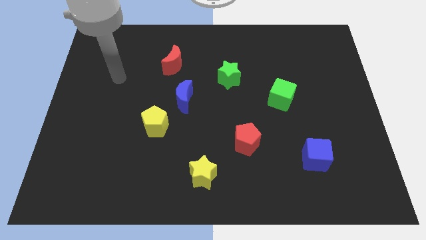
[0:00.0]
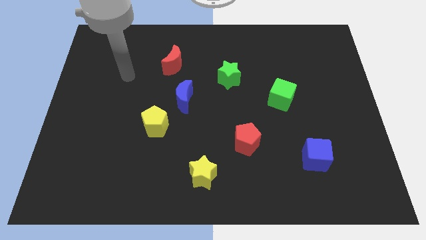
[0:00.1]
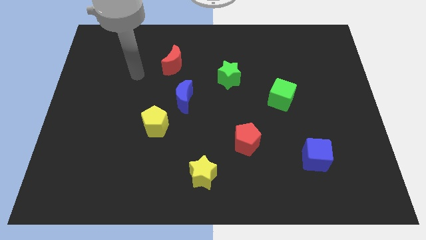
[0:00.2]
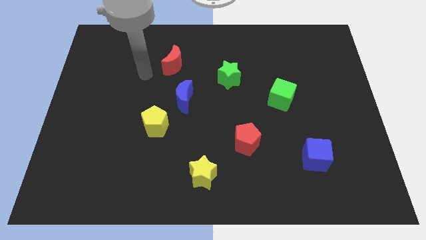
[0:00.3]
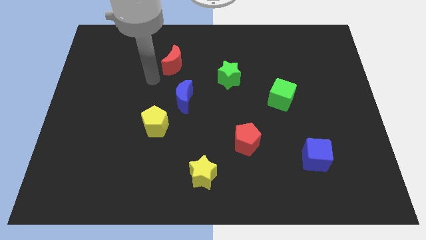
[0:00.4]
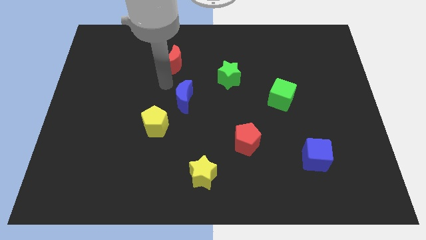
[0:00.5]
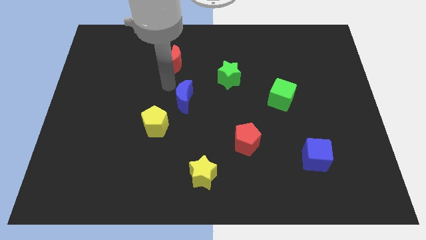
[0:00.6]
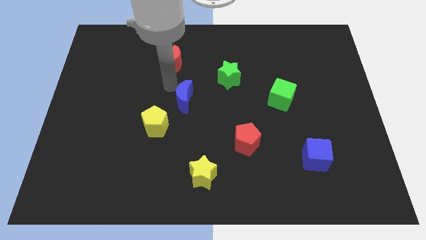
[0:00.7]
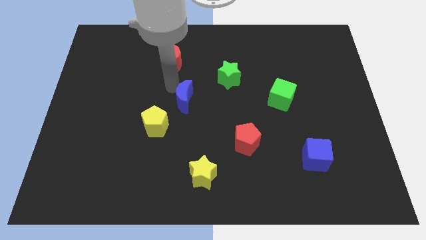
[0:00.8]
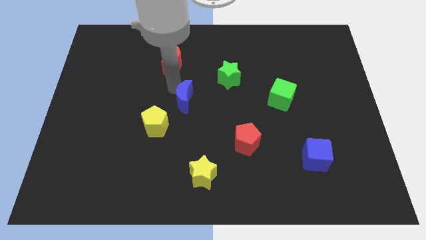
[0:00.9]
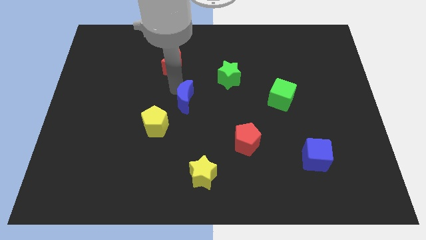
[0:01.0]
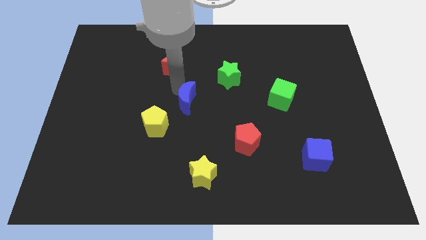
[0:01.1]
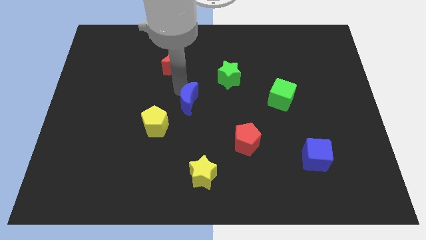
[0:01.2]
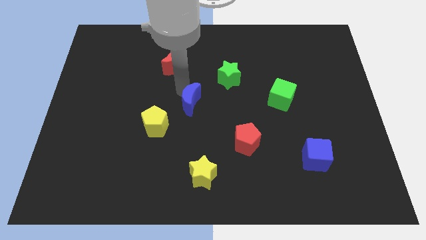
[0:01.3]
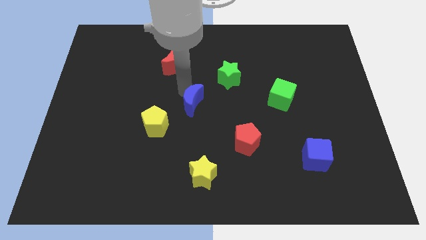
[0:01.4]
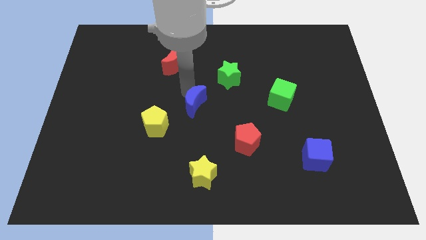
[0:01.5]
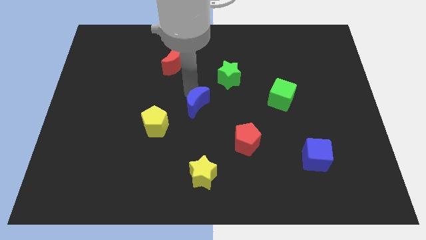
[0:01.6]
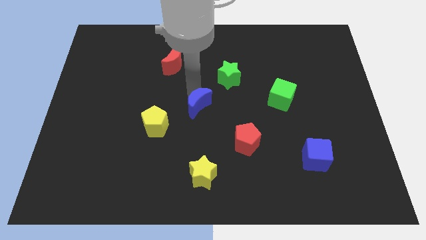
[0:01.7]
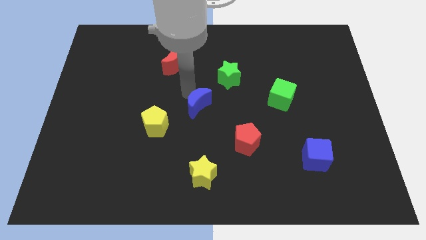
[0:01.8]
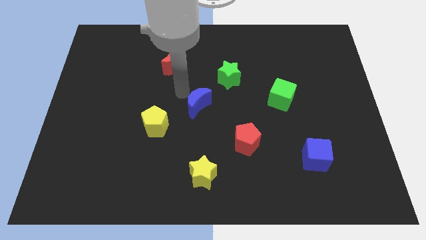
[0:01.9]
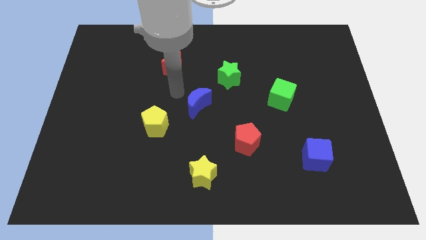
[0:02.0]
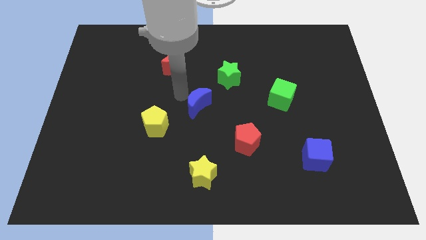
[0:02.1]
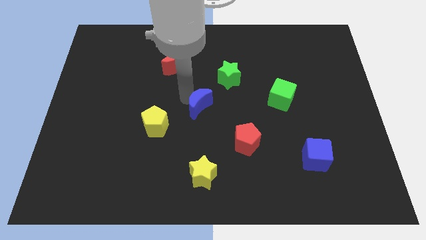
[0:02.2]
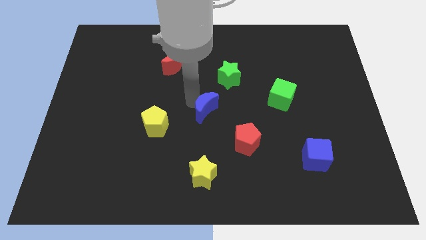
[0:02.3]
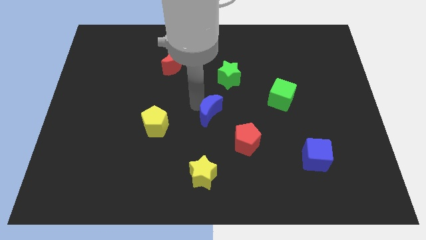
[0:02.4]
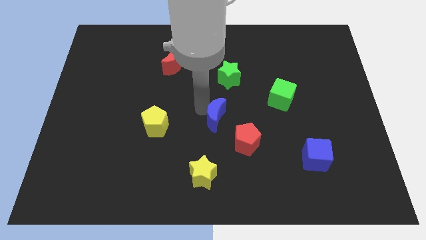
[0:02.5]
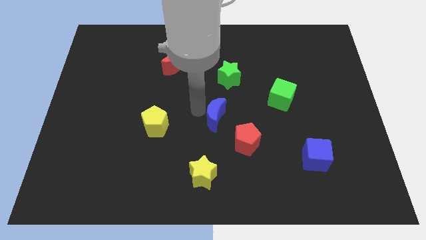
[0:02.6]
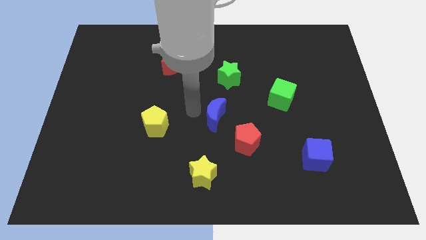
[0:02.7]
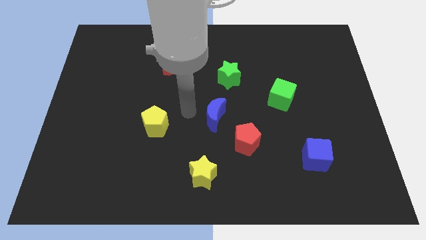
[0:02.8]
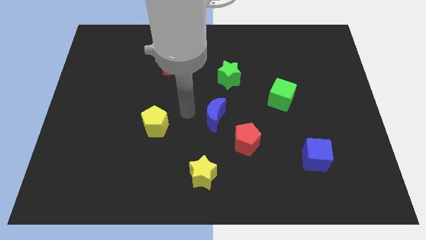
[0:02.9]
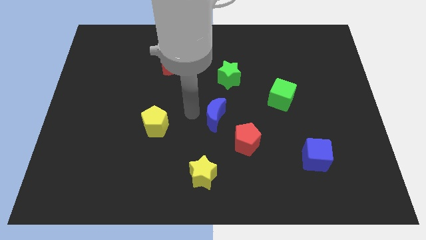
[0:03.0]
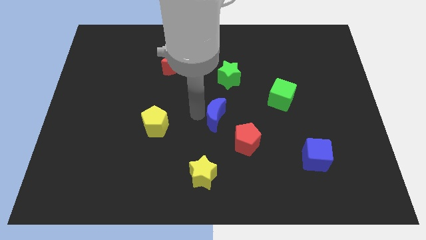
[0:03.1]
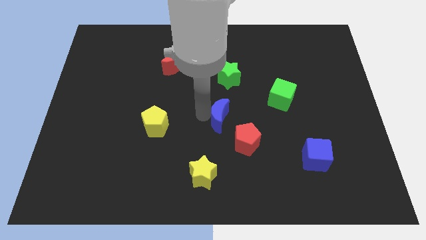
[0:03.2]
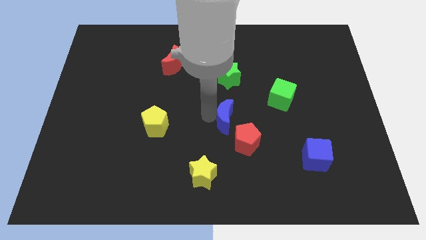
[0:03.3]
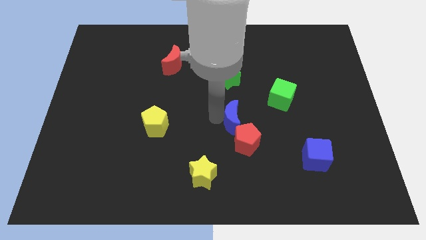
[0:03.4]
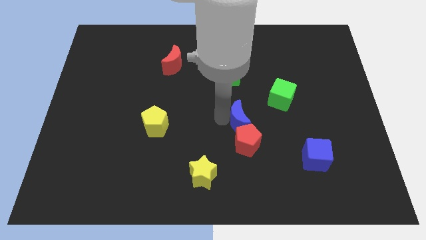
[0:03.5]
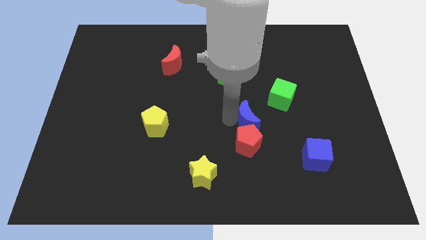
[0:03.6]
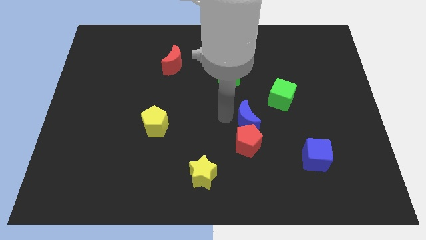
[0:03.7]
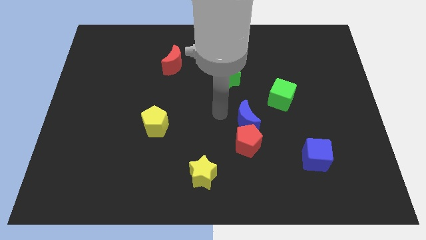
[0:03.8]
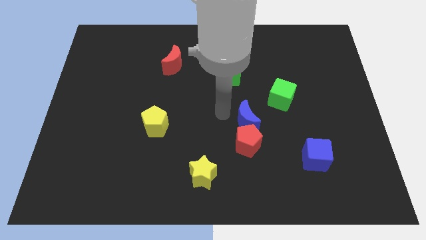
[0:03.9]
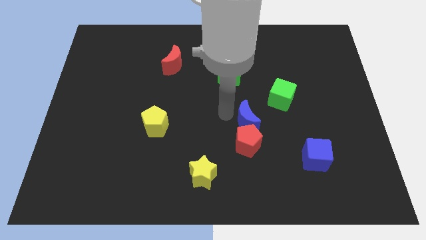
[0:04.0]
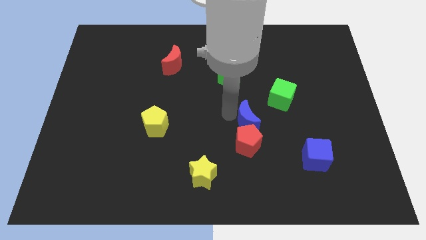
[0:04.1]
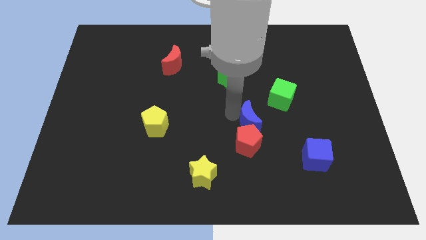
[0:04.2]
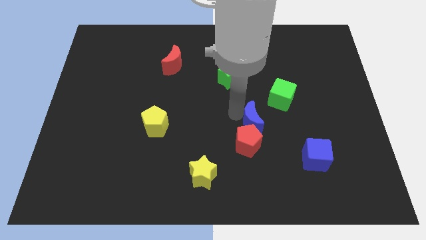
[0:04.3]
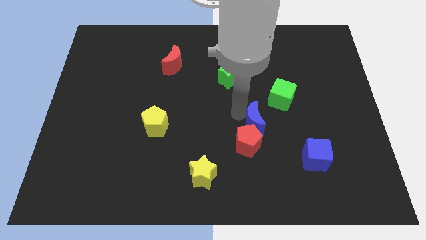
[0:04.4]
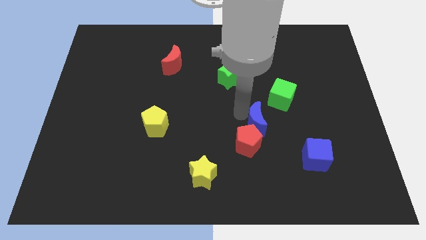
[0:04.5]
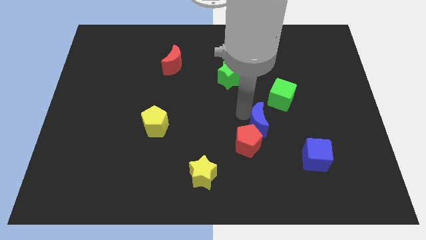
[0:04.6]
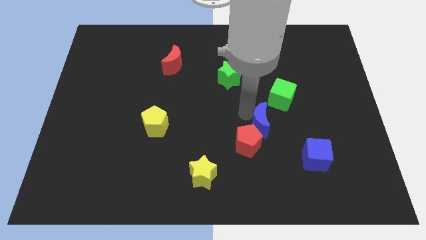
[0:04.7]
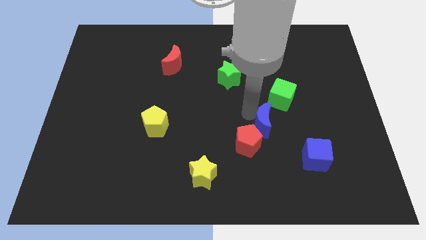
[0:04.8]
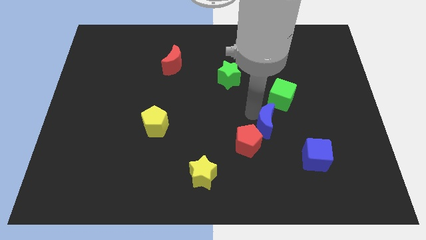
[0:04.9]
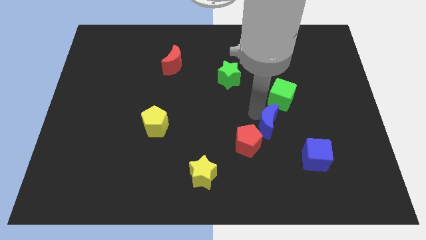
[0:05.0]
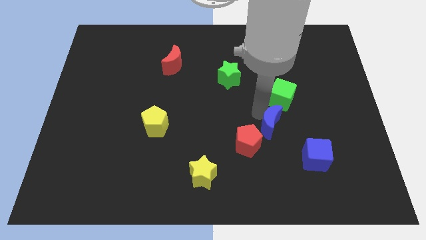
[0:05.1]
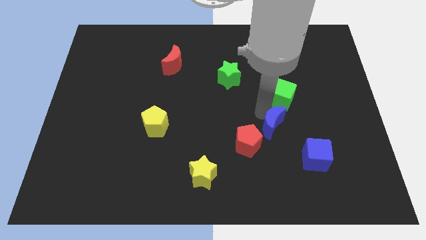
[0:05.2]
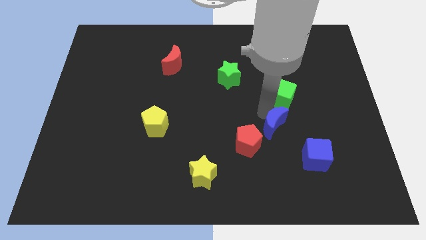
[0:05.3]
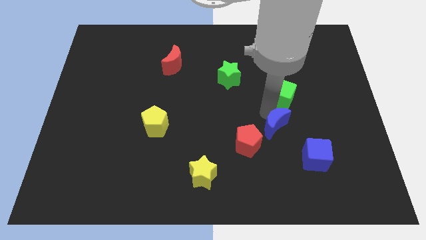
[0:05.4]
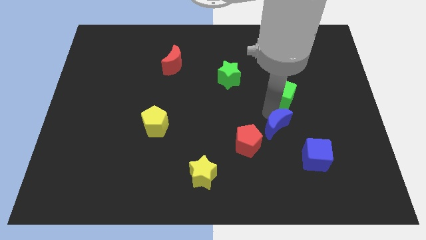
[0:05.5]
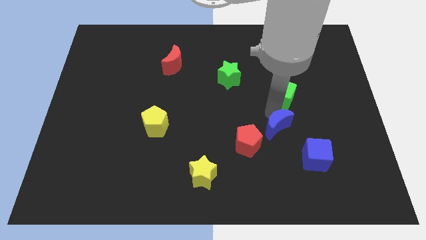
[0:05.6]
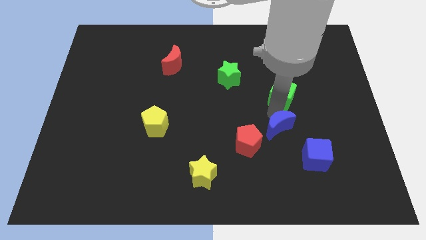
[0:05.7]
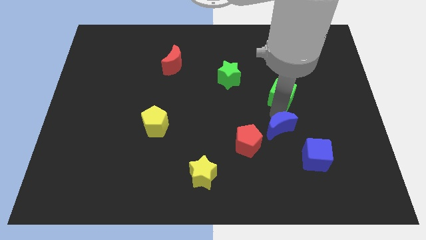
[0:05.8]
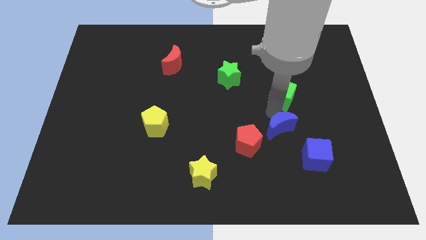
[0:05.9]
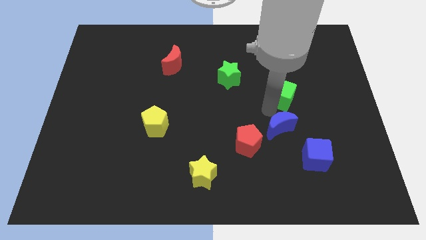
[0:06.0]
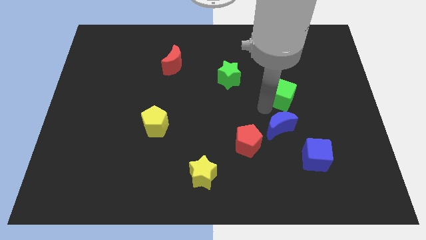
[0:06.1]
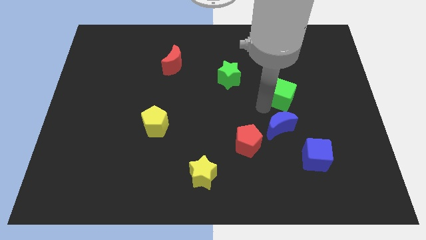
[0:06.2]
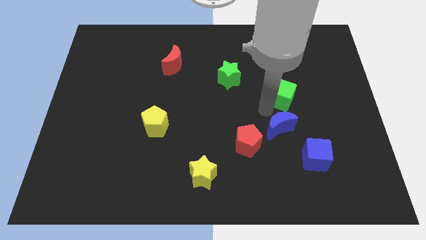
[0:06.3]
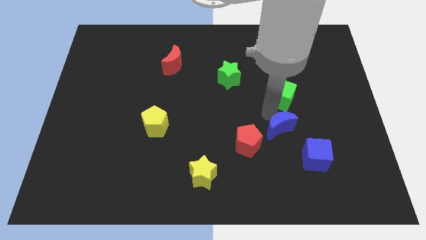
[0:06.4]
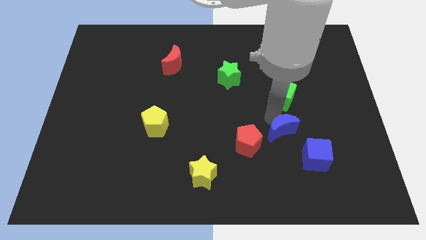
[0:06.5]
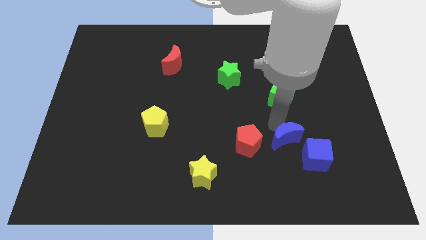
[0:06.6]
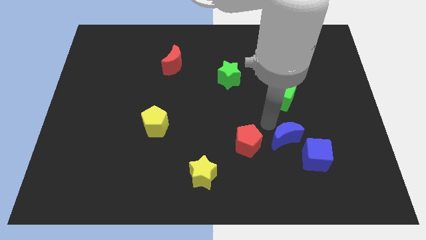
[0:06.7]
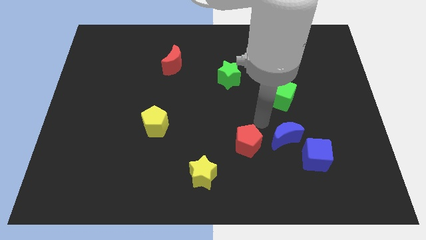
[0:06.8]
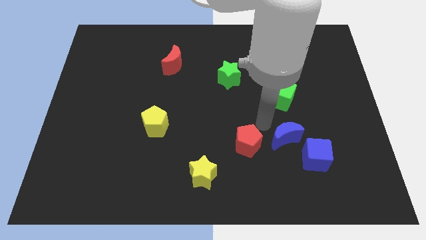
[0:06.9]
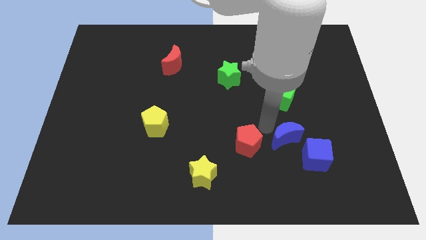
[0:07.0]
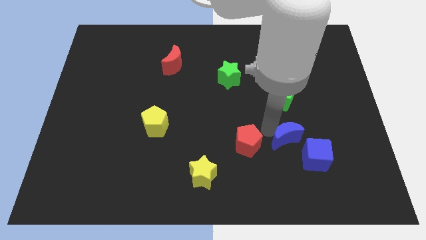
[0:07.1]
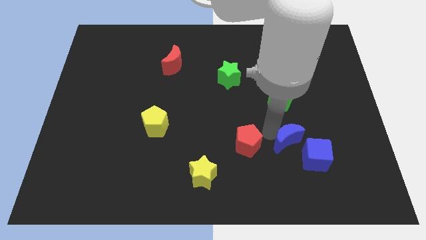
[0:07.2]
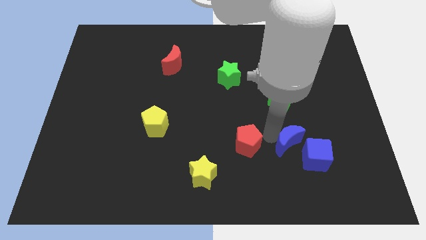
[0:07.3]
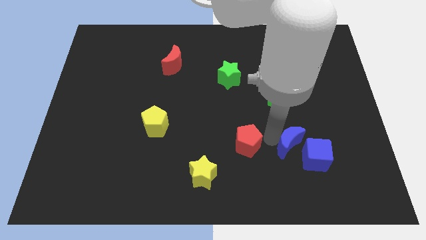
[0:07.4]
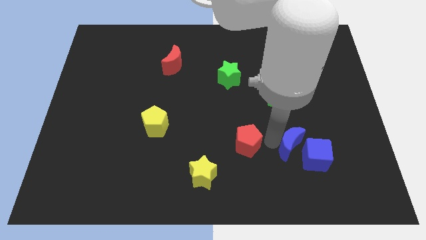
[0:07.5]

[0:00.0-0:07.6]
move the blue moon close to the blue cube
